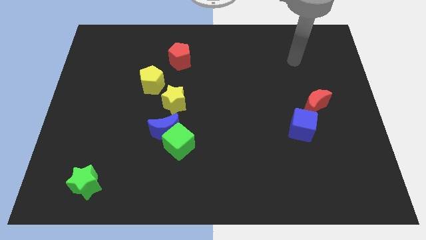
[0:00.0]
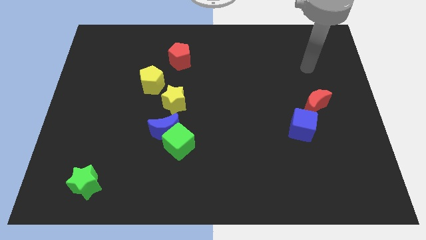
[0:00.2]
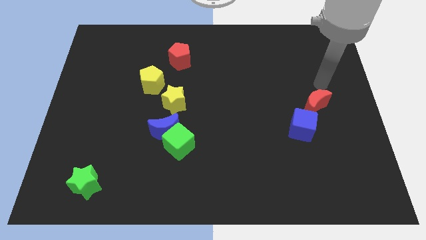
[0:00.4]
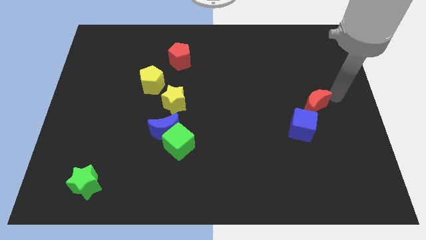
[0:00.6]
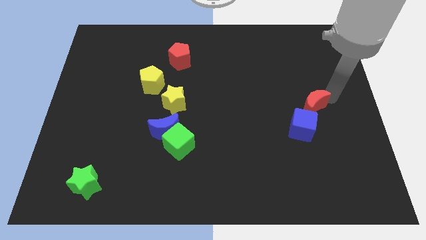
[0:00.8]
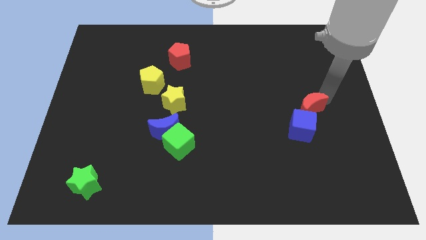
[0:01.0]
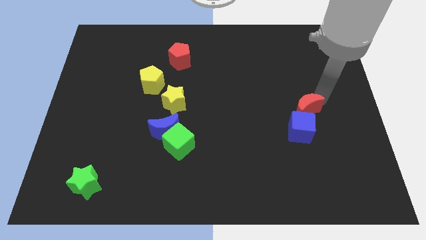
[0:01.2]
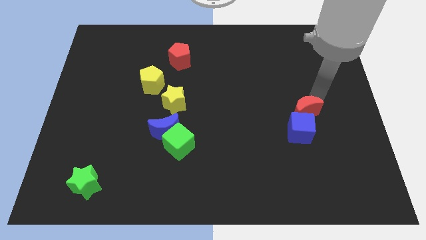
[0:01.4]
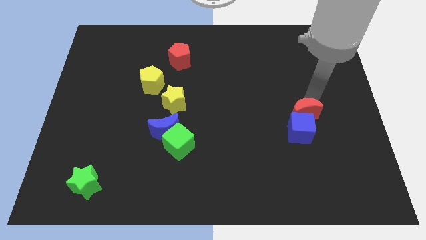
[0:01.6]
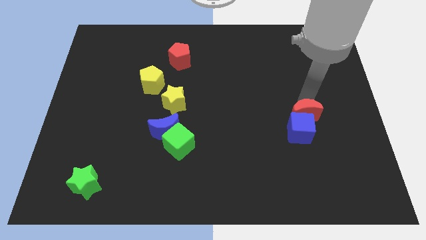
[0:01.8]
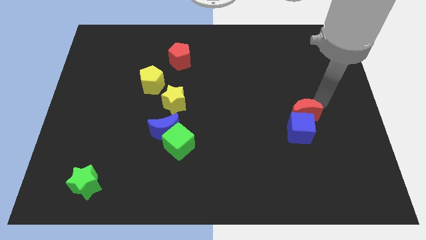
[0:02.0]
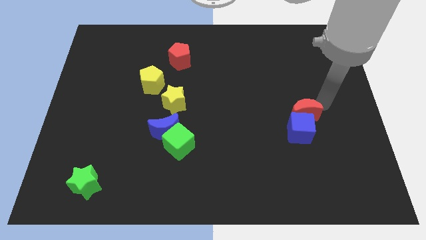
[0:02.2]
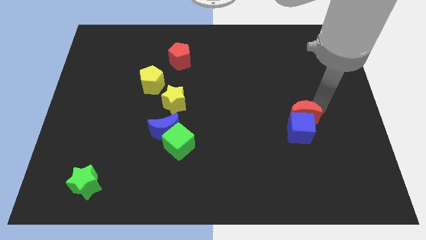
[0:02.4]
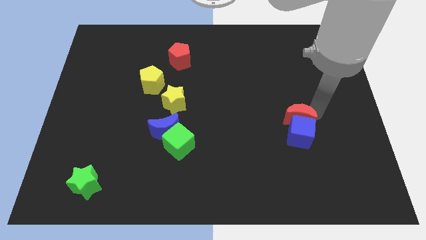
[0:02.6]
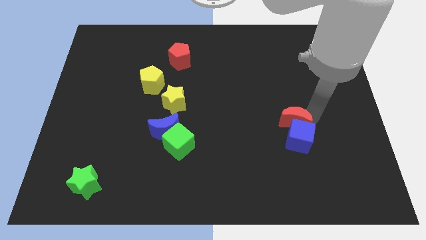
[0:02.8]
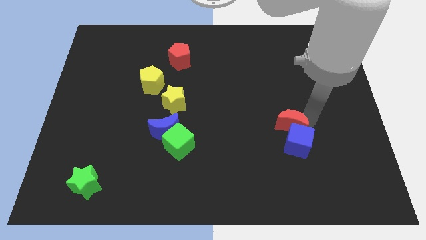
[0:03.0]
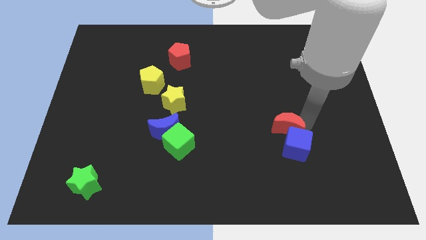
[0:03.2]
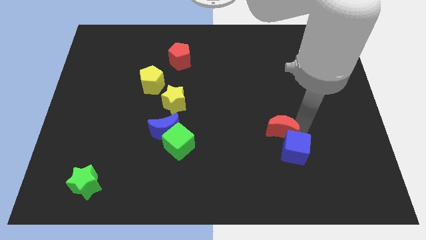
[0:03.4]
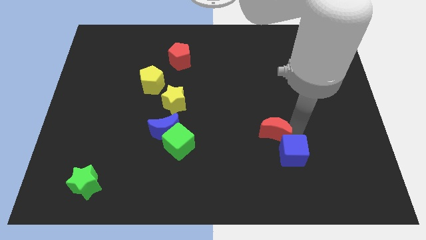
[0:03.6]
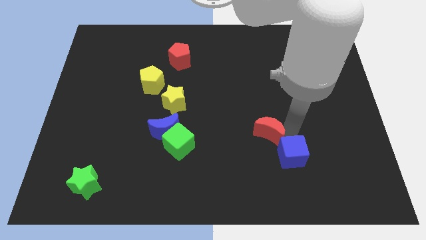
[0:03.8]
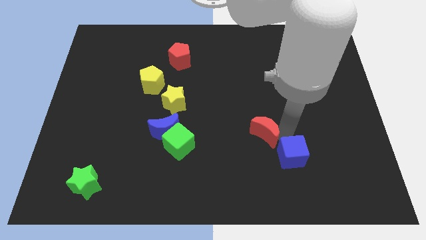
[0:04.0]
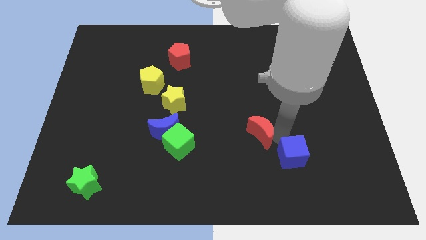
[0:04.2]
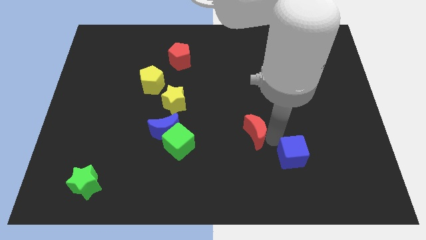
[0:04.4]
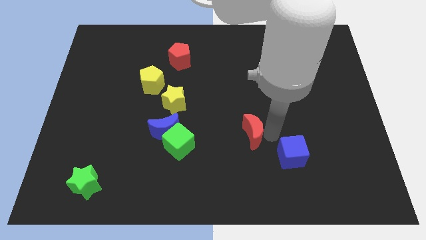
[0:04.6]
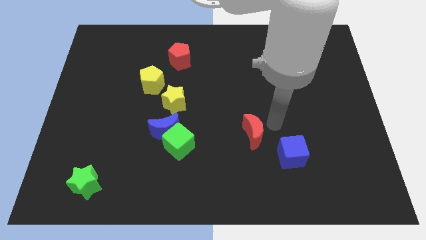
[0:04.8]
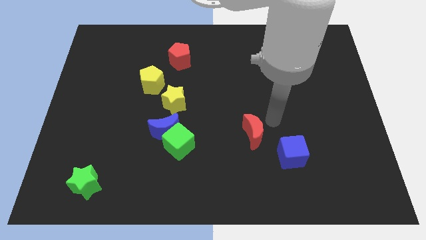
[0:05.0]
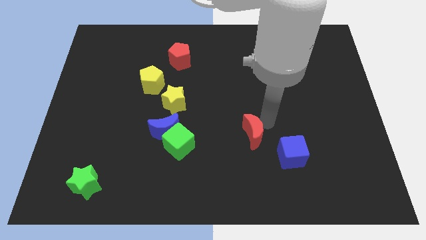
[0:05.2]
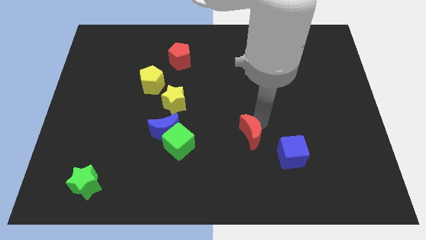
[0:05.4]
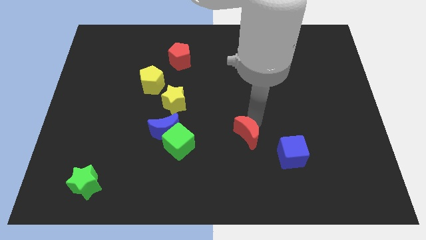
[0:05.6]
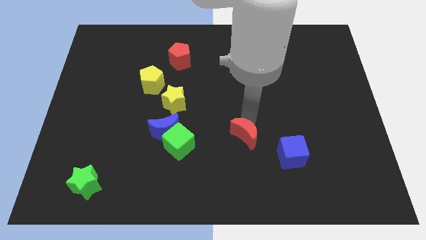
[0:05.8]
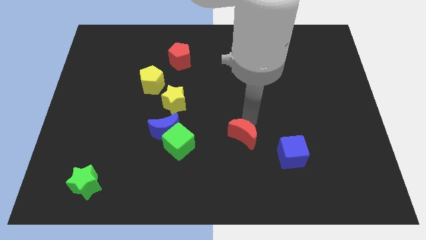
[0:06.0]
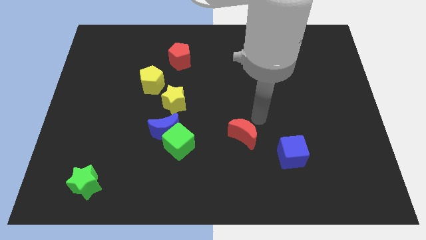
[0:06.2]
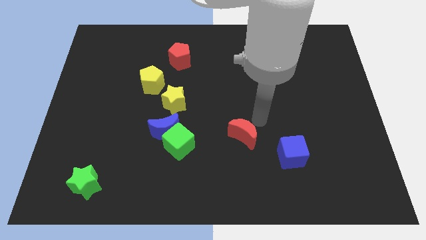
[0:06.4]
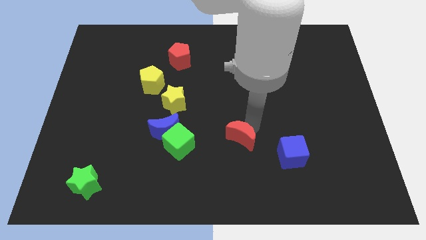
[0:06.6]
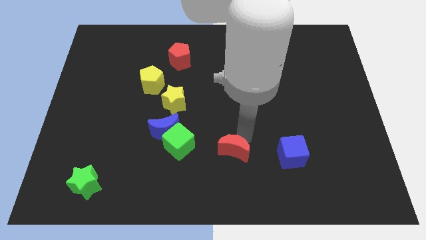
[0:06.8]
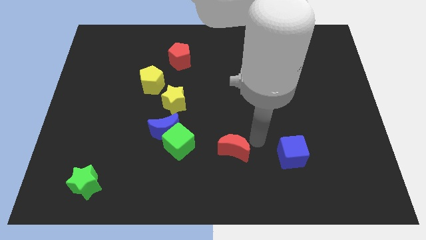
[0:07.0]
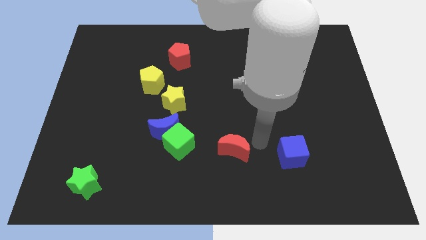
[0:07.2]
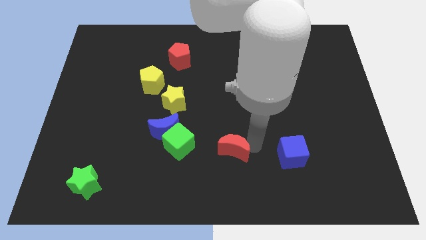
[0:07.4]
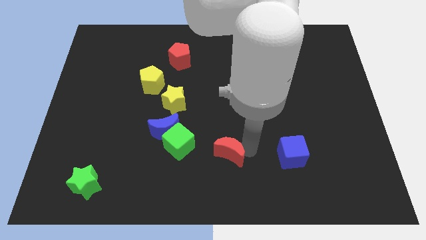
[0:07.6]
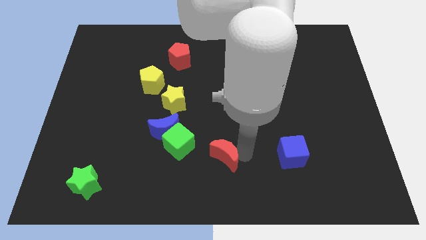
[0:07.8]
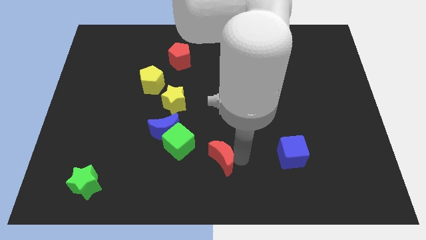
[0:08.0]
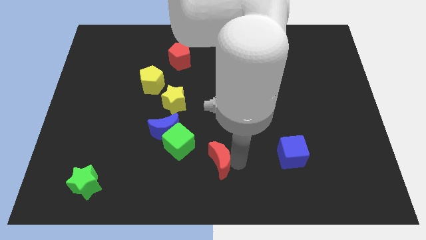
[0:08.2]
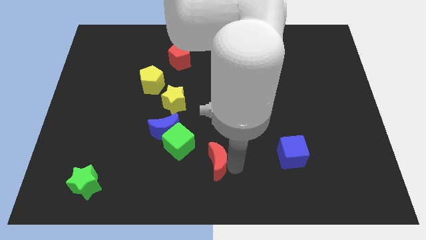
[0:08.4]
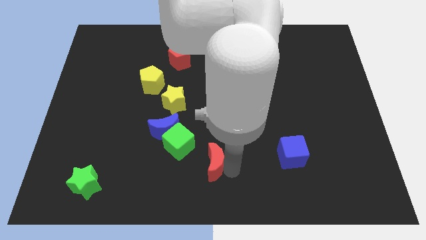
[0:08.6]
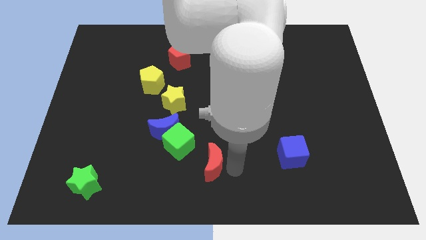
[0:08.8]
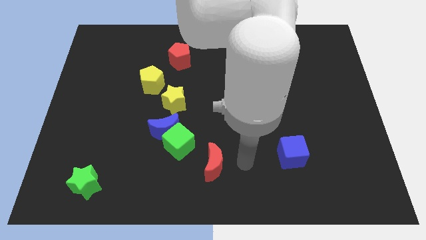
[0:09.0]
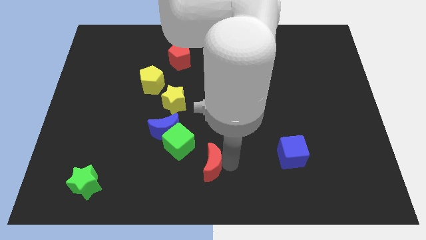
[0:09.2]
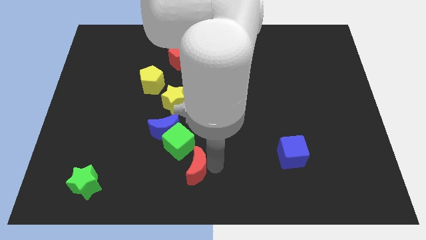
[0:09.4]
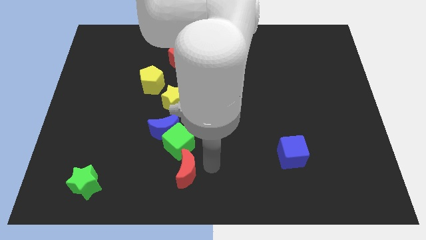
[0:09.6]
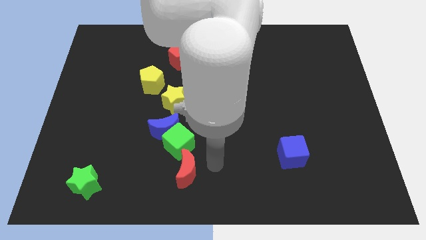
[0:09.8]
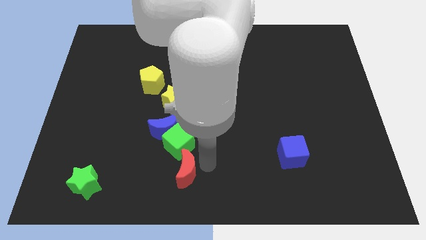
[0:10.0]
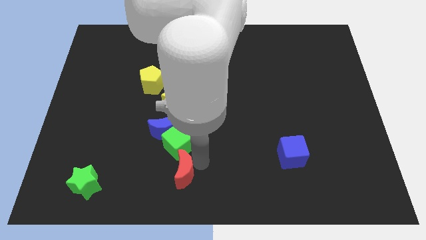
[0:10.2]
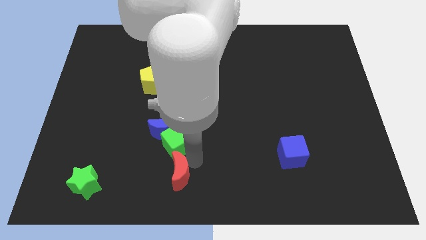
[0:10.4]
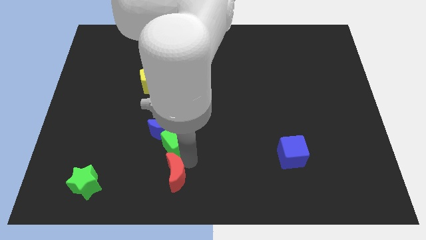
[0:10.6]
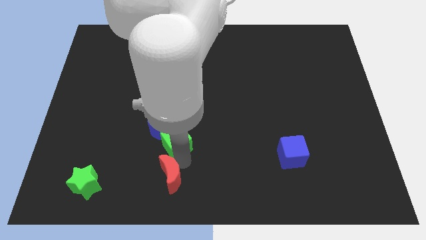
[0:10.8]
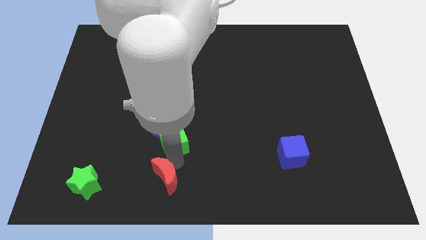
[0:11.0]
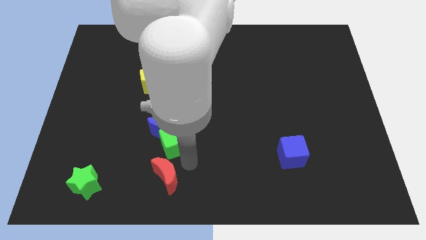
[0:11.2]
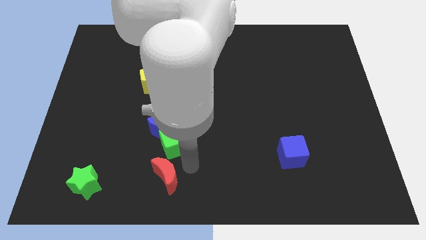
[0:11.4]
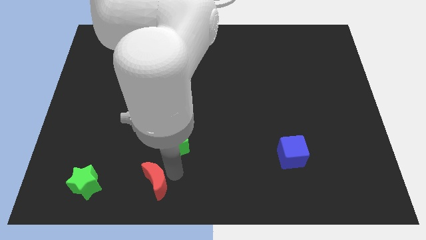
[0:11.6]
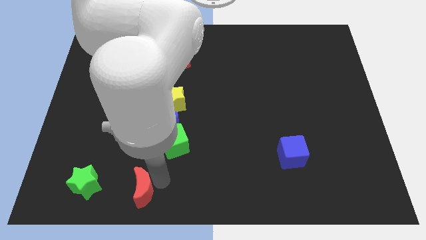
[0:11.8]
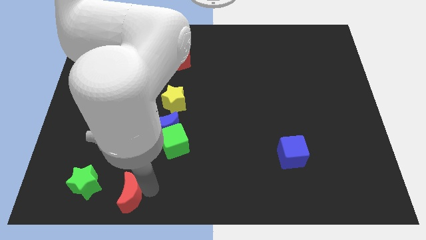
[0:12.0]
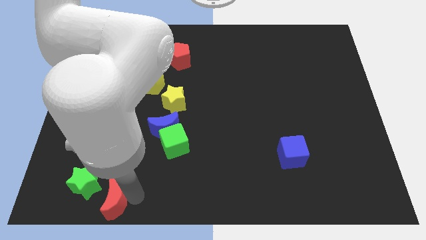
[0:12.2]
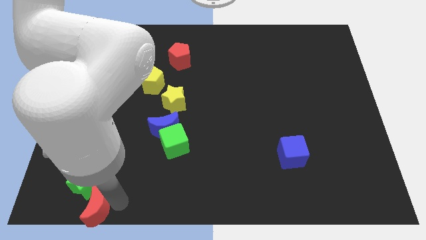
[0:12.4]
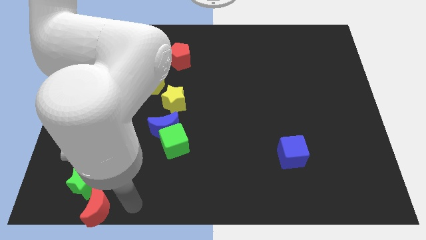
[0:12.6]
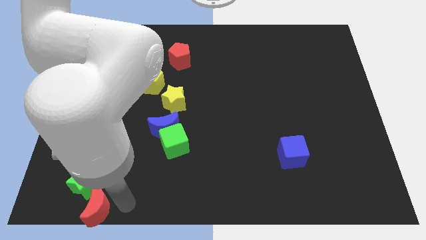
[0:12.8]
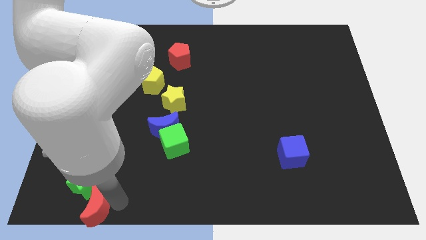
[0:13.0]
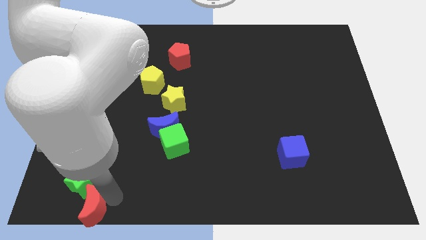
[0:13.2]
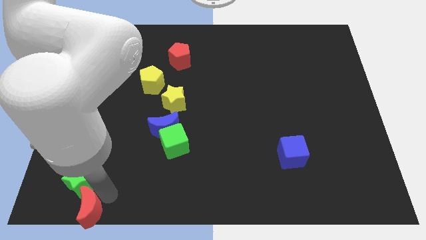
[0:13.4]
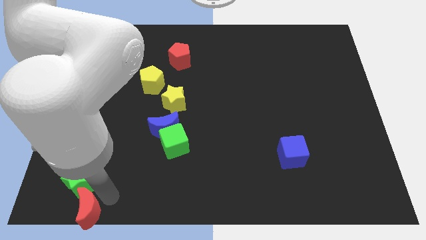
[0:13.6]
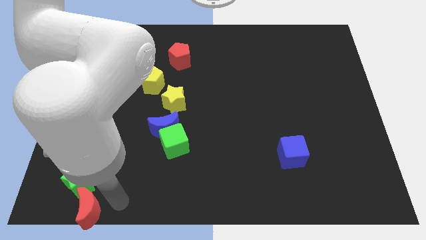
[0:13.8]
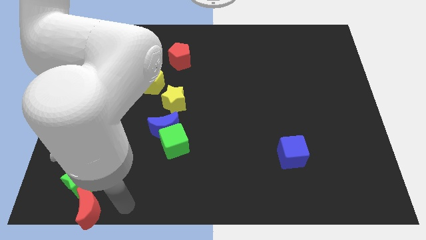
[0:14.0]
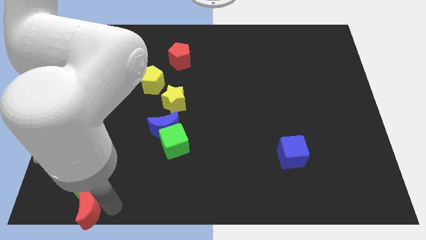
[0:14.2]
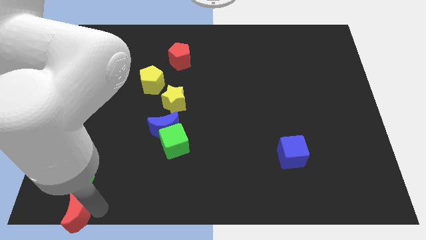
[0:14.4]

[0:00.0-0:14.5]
move the red moon to the lower left corner
